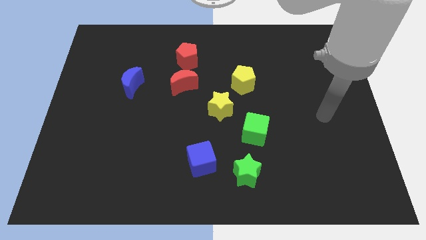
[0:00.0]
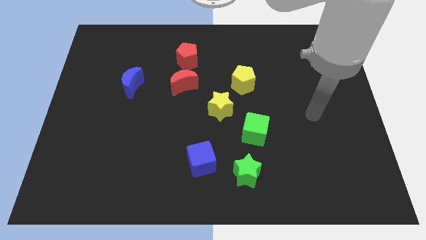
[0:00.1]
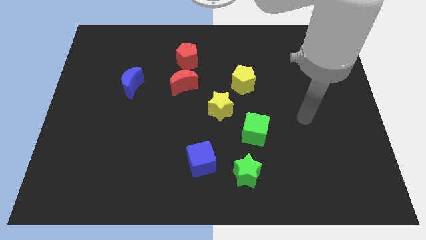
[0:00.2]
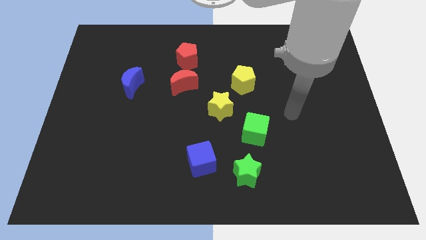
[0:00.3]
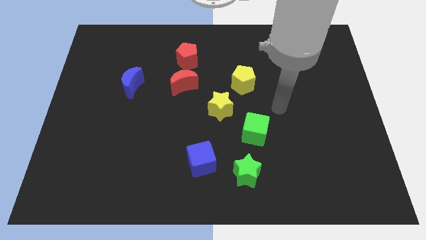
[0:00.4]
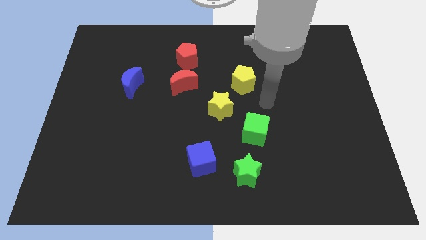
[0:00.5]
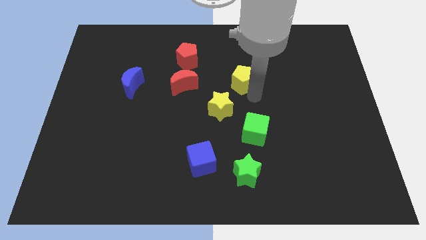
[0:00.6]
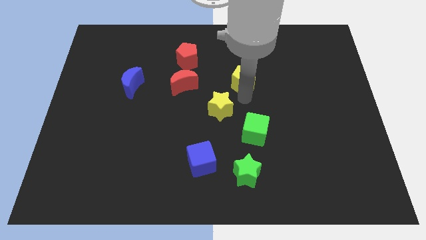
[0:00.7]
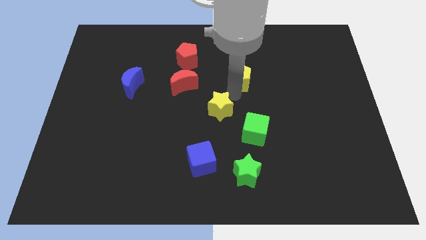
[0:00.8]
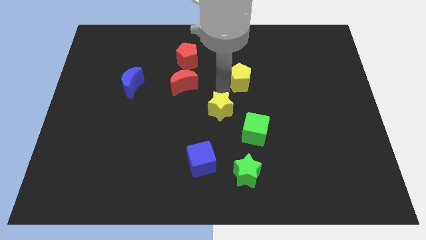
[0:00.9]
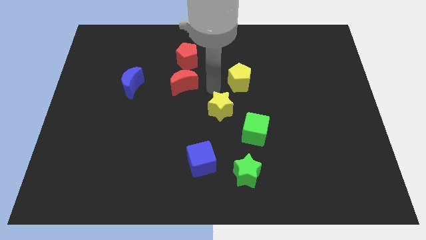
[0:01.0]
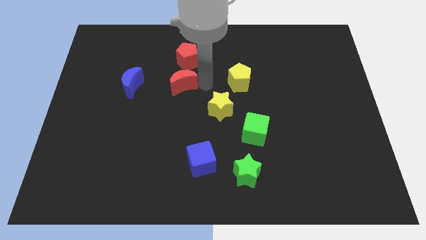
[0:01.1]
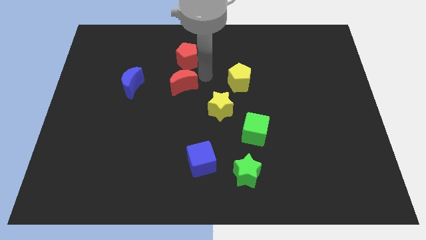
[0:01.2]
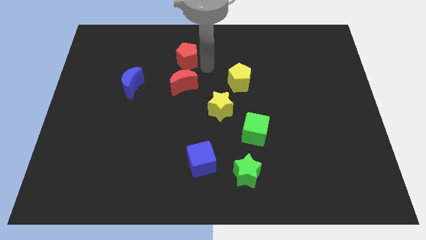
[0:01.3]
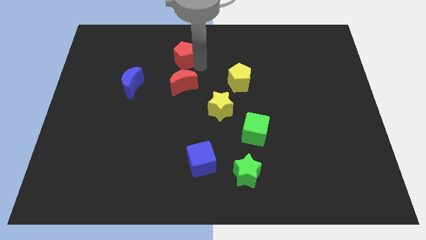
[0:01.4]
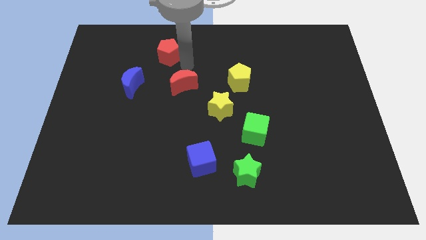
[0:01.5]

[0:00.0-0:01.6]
pull the red moon apart from the red pentagon

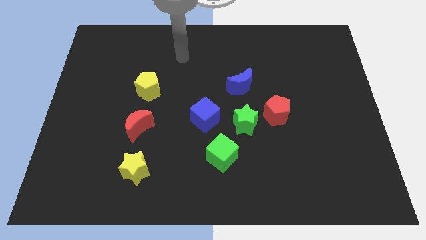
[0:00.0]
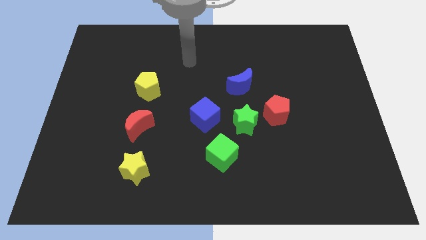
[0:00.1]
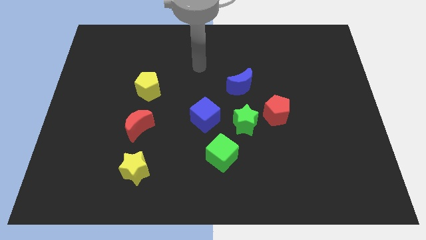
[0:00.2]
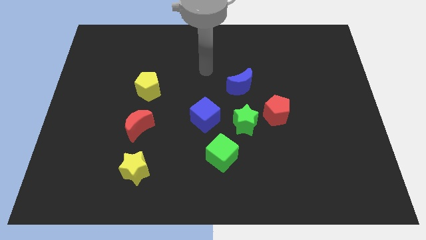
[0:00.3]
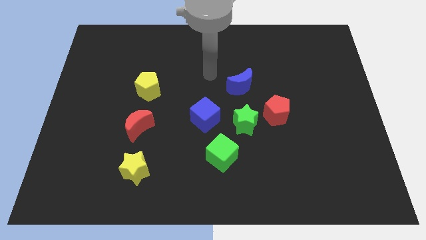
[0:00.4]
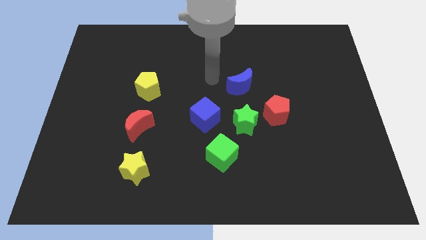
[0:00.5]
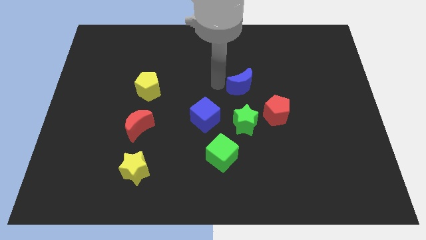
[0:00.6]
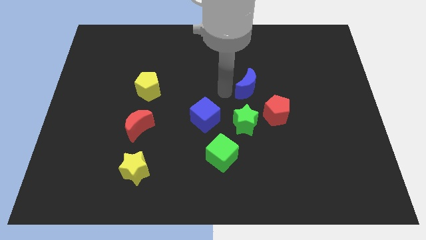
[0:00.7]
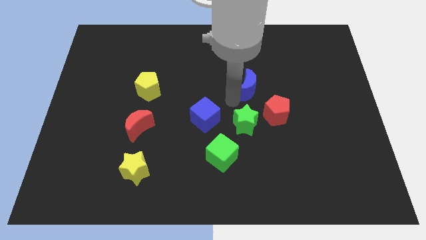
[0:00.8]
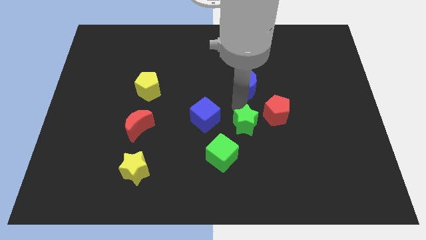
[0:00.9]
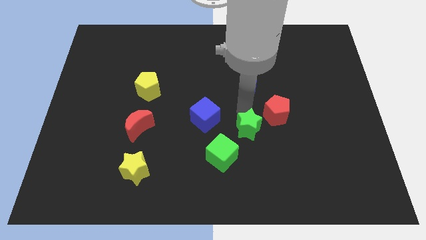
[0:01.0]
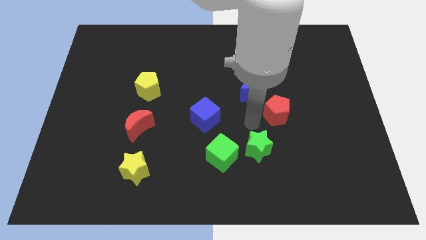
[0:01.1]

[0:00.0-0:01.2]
move the red pentagon away from the green star

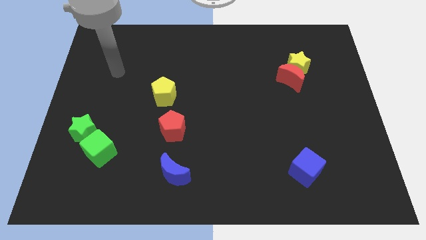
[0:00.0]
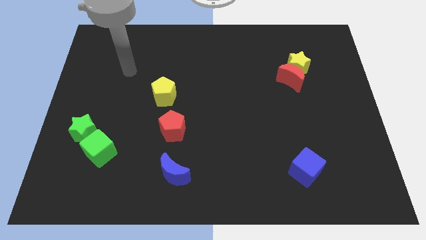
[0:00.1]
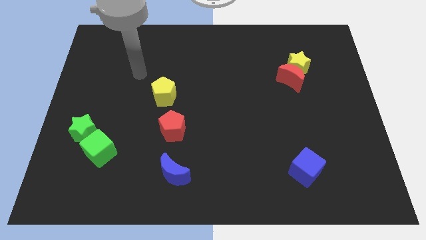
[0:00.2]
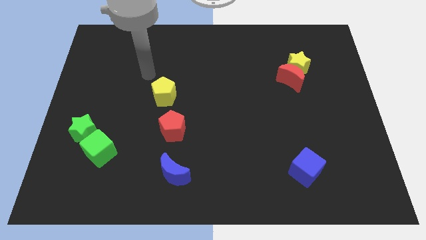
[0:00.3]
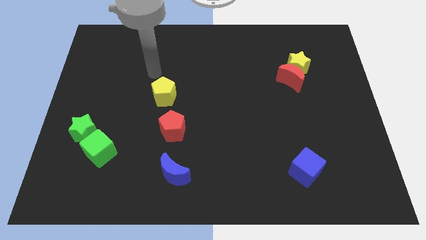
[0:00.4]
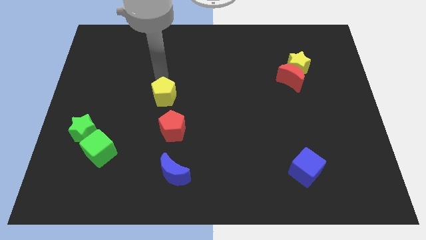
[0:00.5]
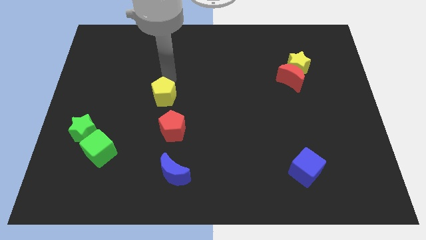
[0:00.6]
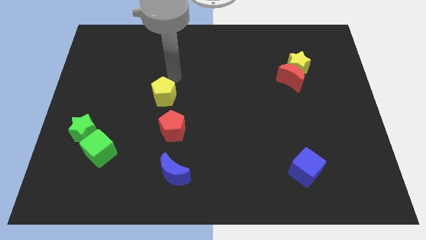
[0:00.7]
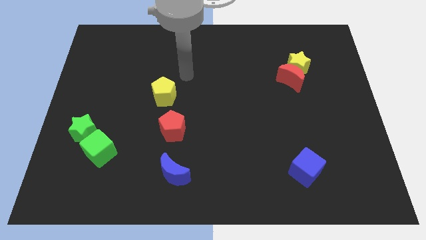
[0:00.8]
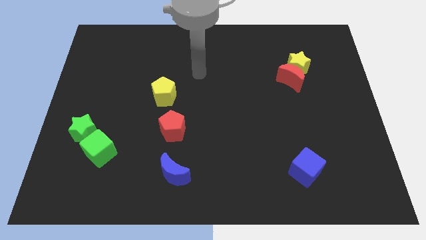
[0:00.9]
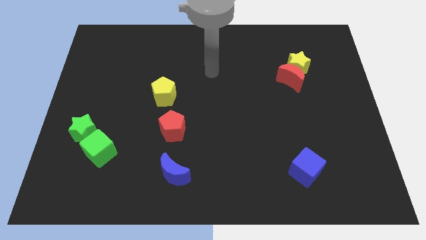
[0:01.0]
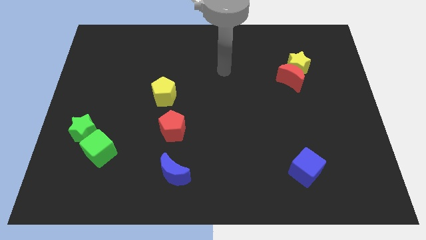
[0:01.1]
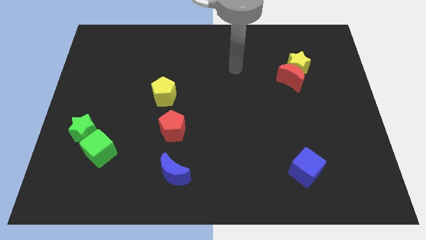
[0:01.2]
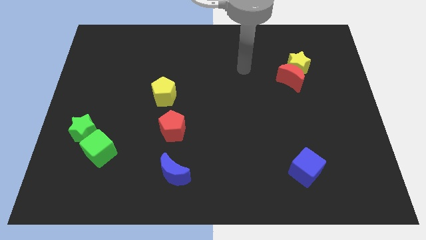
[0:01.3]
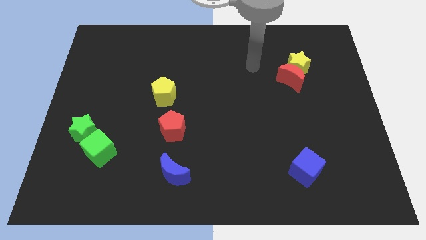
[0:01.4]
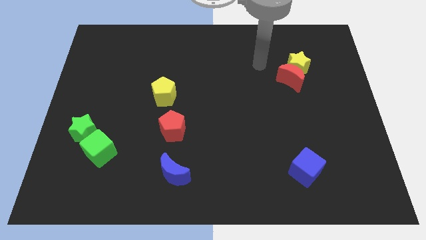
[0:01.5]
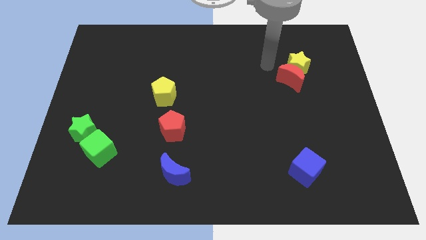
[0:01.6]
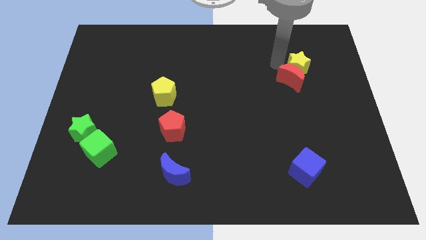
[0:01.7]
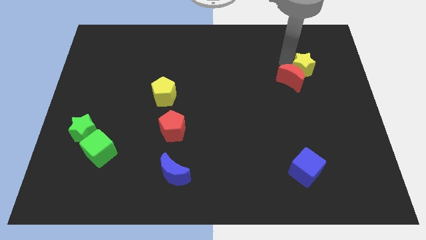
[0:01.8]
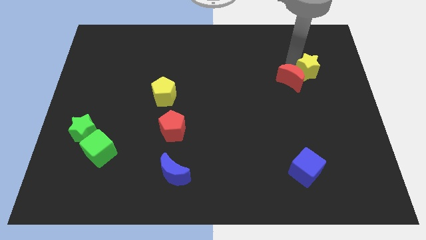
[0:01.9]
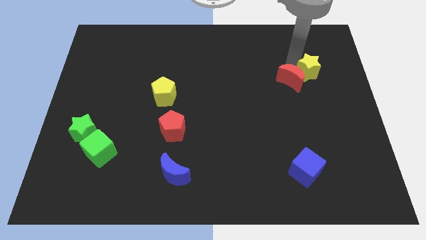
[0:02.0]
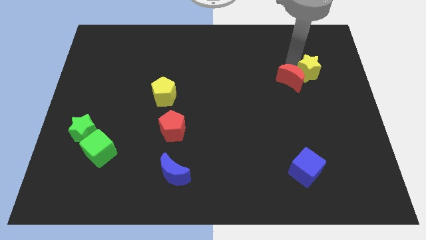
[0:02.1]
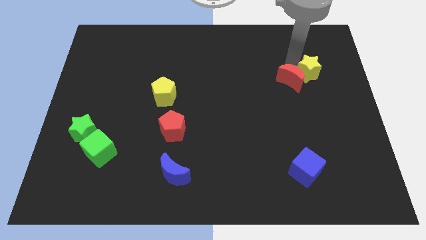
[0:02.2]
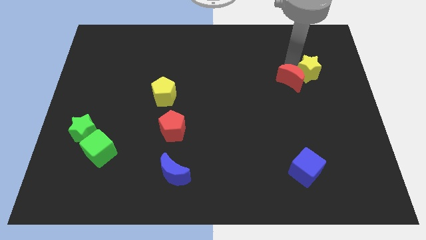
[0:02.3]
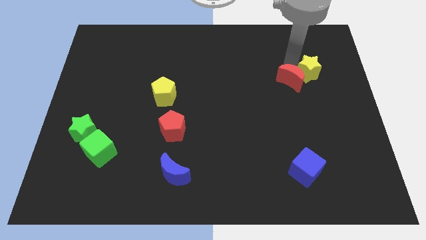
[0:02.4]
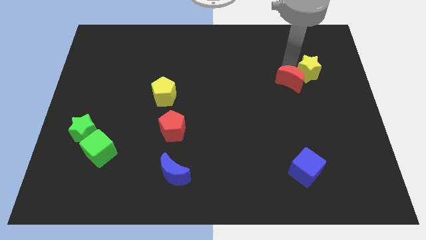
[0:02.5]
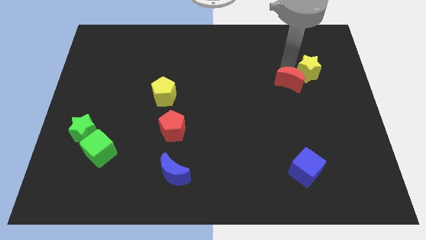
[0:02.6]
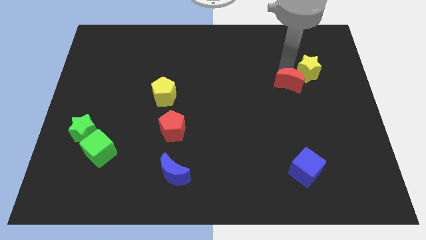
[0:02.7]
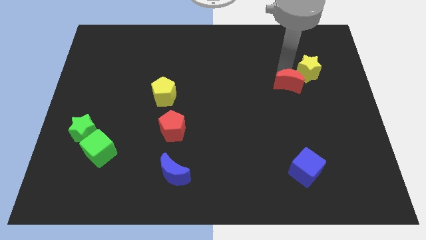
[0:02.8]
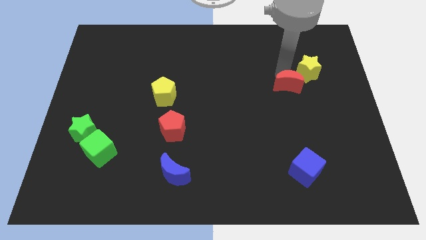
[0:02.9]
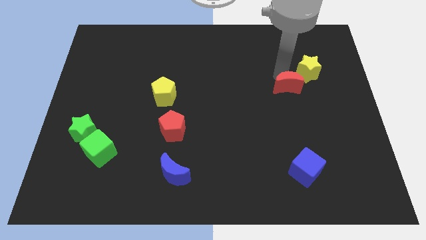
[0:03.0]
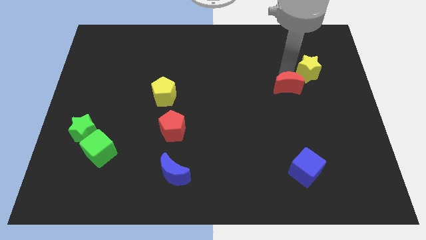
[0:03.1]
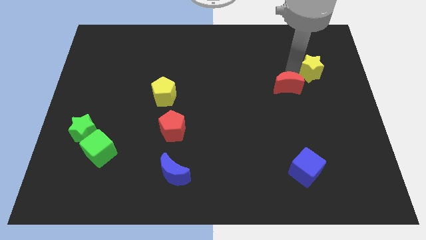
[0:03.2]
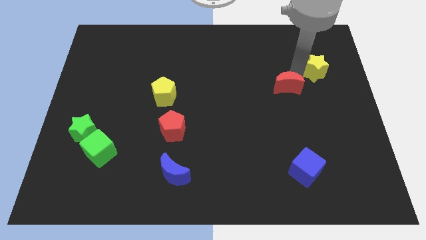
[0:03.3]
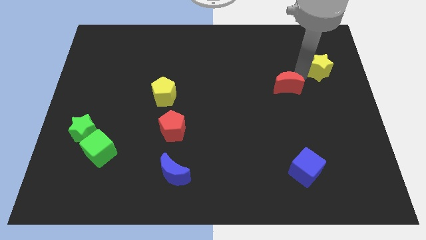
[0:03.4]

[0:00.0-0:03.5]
move the red moon away from the yellow star

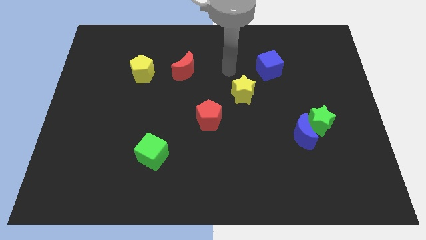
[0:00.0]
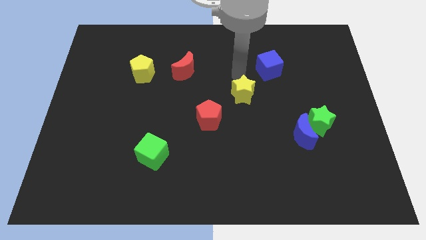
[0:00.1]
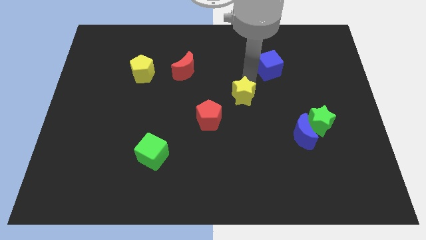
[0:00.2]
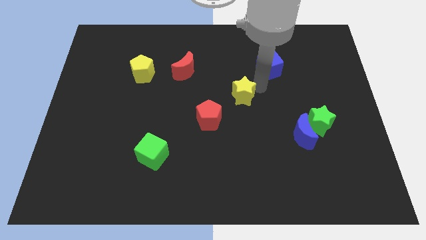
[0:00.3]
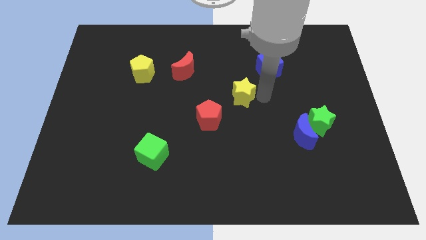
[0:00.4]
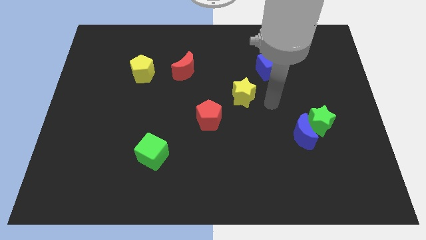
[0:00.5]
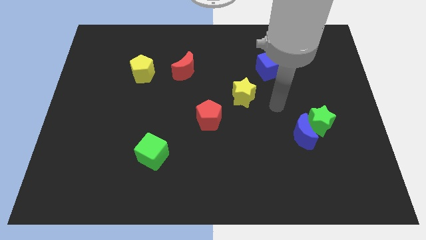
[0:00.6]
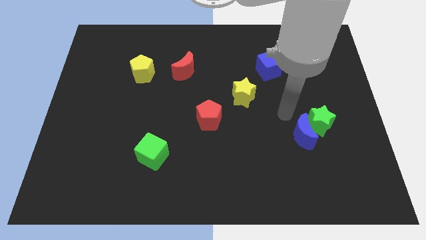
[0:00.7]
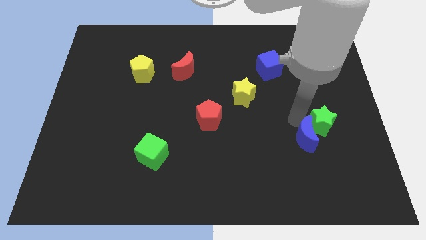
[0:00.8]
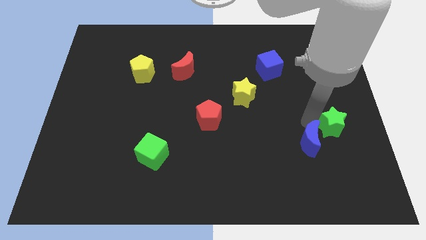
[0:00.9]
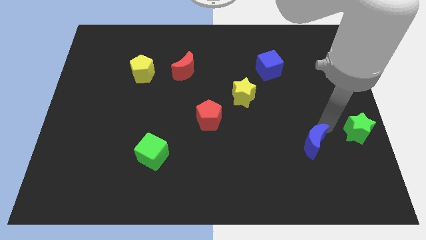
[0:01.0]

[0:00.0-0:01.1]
separate the blue moon from the green star

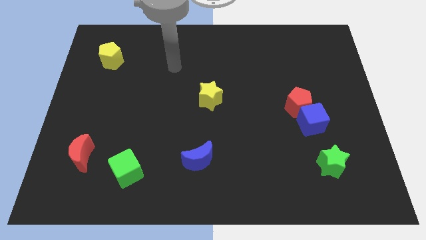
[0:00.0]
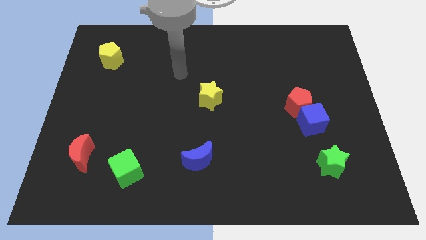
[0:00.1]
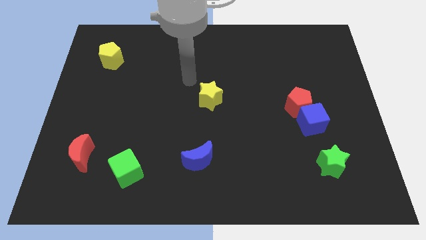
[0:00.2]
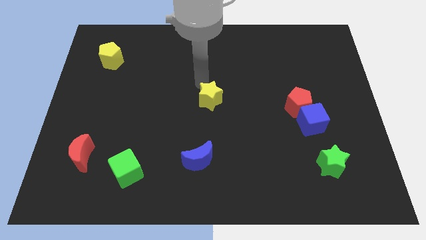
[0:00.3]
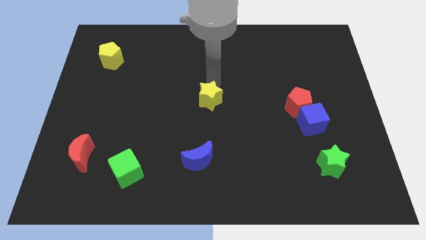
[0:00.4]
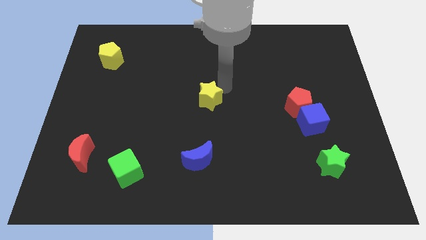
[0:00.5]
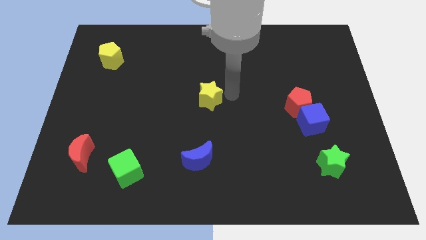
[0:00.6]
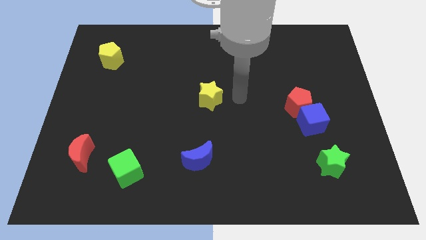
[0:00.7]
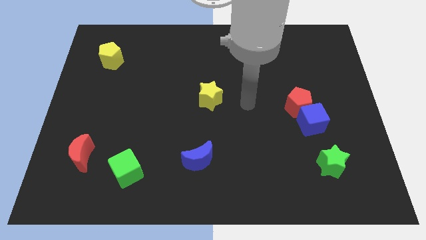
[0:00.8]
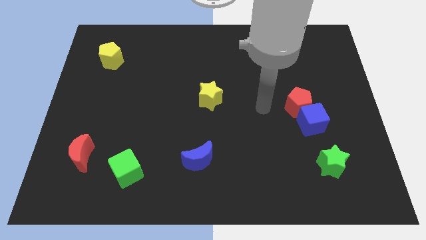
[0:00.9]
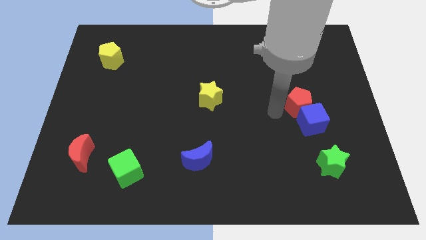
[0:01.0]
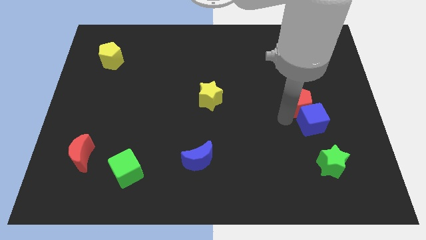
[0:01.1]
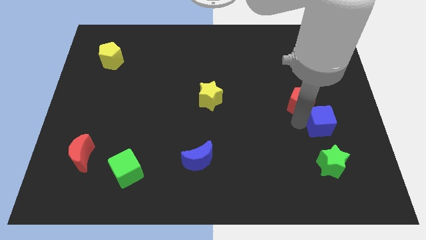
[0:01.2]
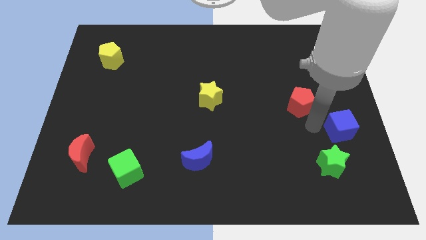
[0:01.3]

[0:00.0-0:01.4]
separate the red pentagon from the blue cube

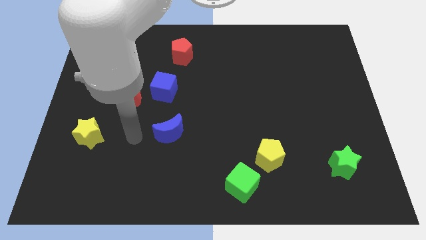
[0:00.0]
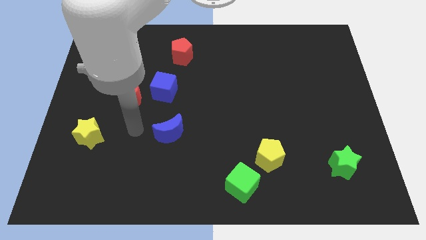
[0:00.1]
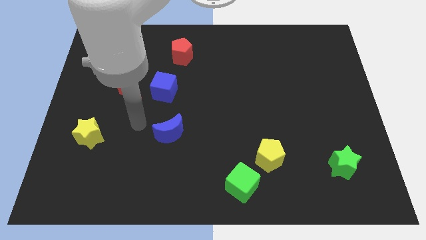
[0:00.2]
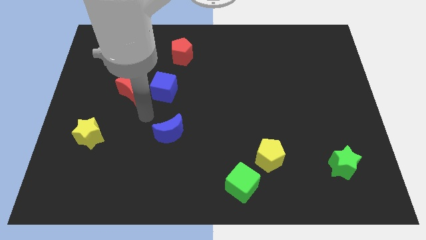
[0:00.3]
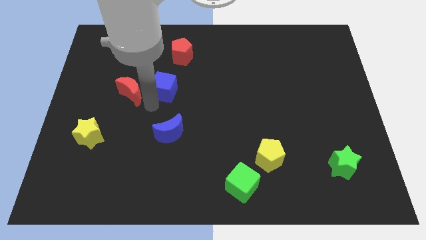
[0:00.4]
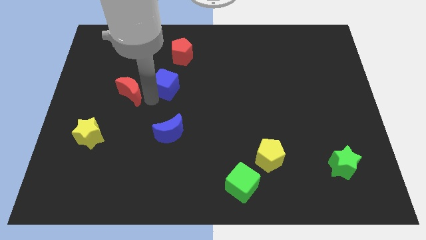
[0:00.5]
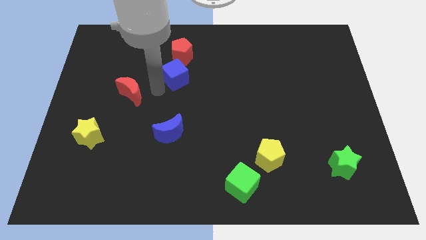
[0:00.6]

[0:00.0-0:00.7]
move the red moon away from the blue cube
